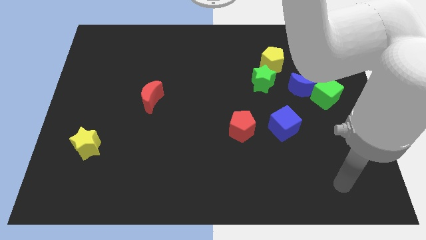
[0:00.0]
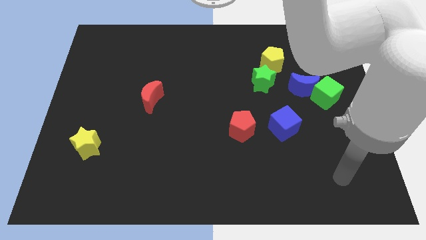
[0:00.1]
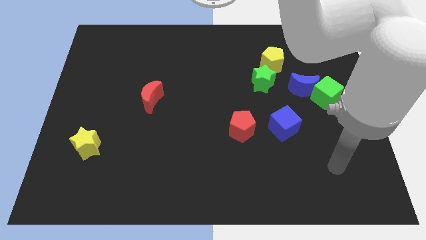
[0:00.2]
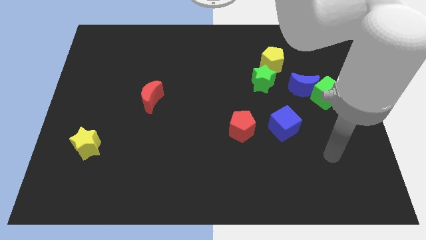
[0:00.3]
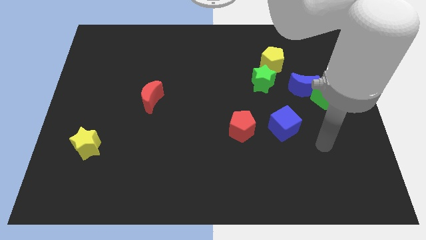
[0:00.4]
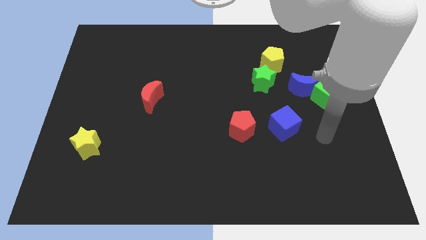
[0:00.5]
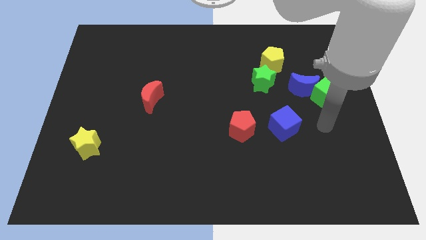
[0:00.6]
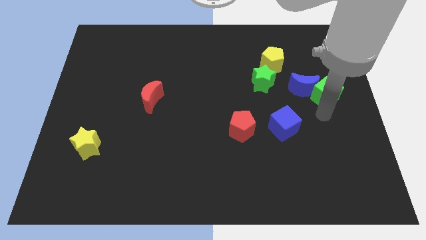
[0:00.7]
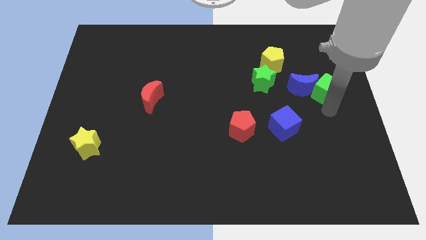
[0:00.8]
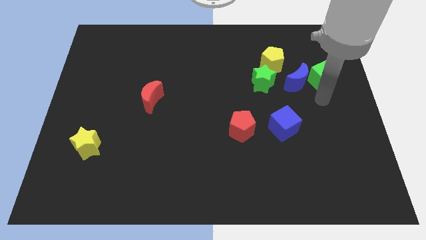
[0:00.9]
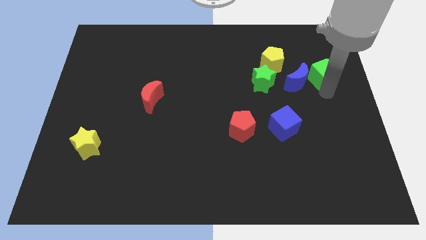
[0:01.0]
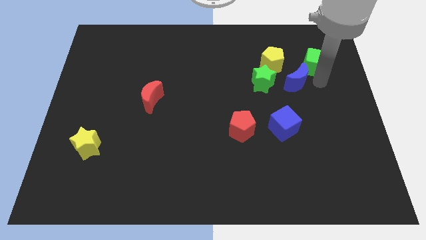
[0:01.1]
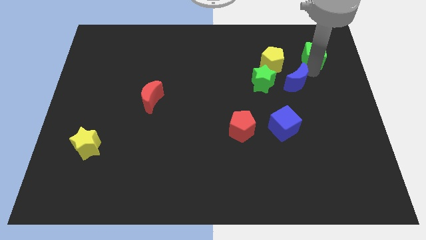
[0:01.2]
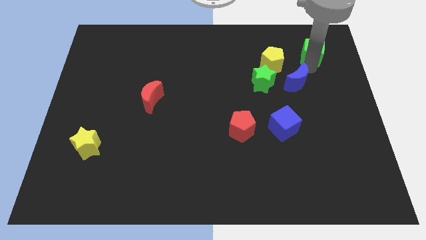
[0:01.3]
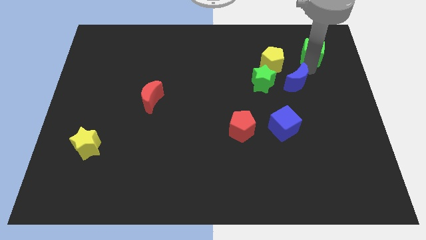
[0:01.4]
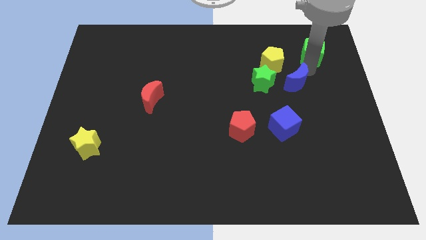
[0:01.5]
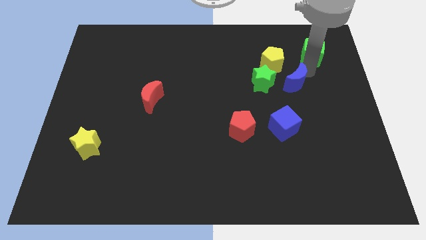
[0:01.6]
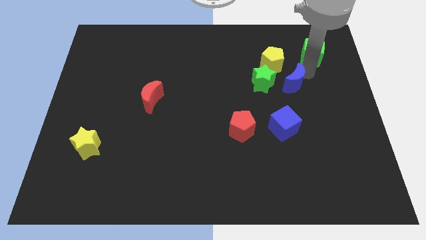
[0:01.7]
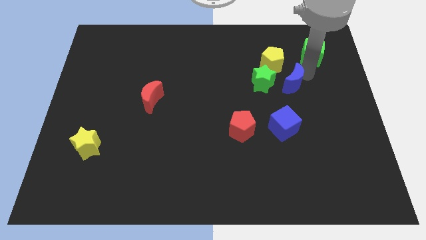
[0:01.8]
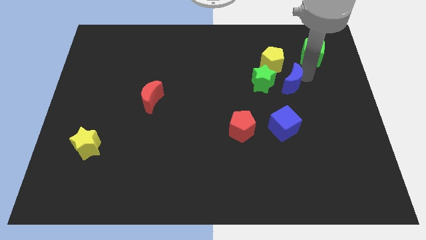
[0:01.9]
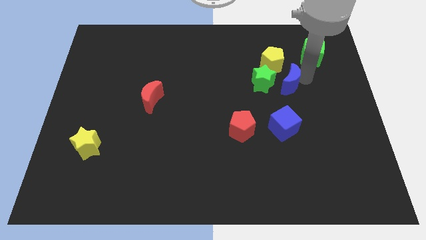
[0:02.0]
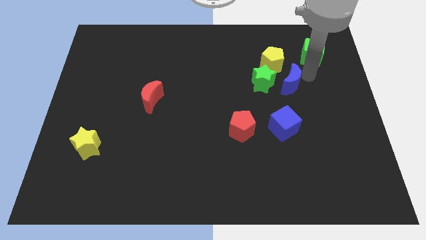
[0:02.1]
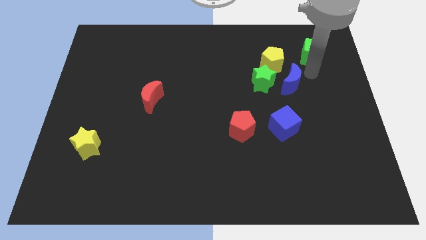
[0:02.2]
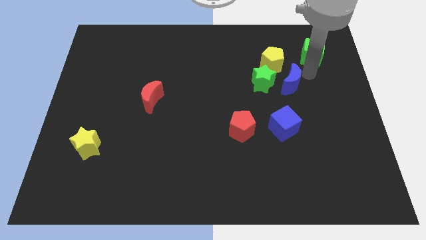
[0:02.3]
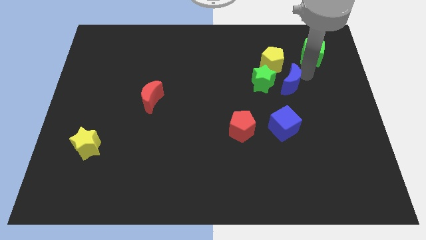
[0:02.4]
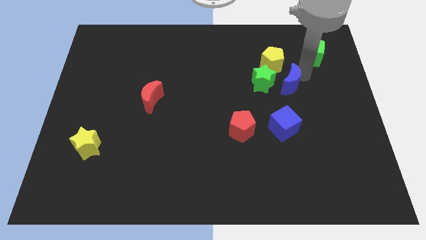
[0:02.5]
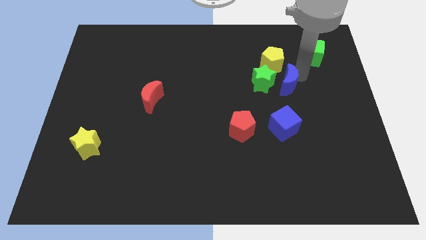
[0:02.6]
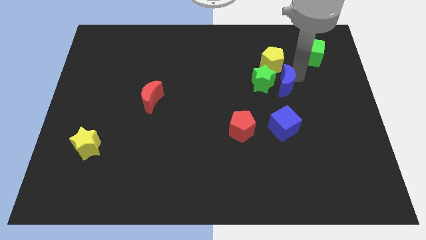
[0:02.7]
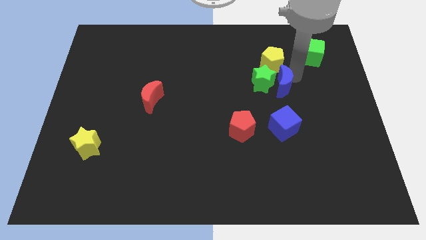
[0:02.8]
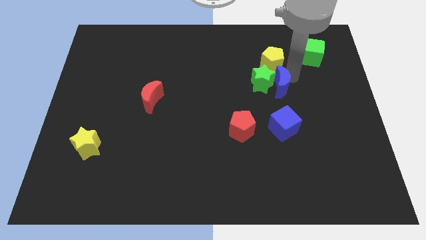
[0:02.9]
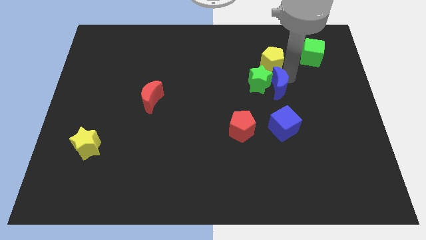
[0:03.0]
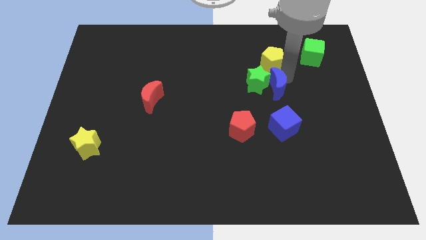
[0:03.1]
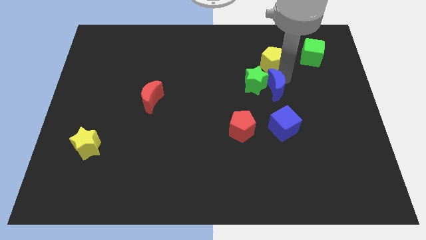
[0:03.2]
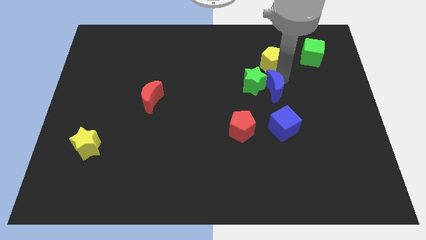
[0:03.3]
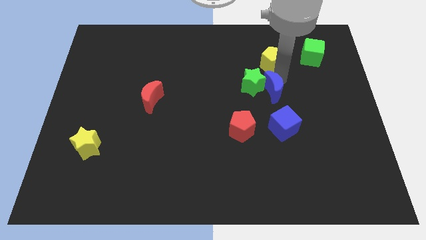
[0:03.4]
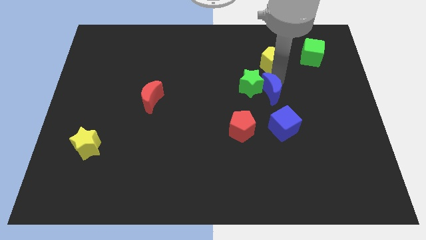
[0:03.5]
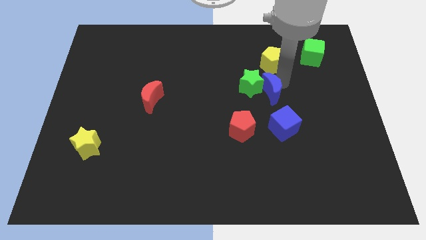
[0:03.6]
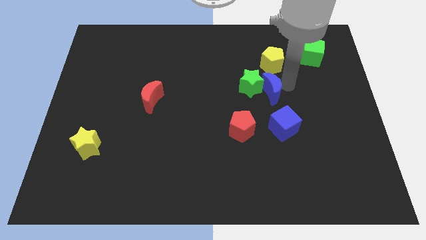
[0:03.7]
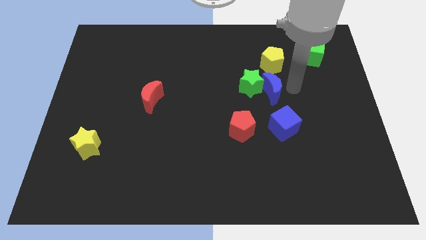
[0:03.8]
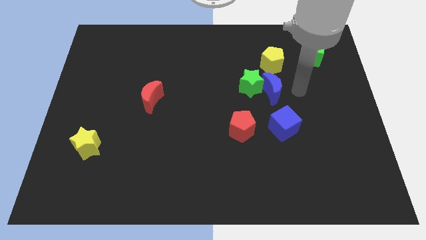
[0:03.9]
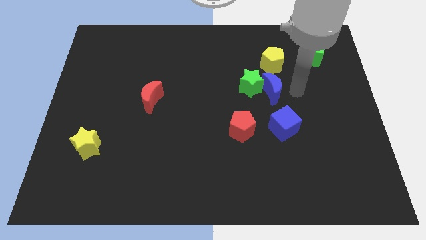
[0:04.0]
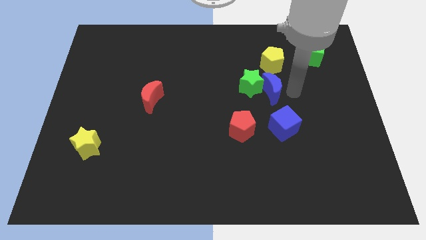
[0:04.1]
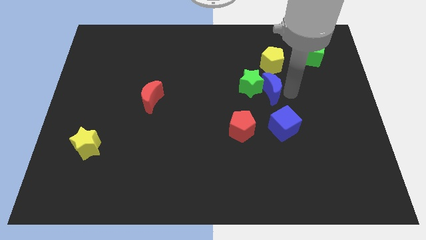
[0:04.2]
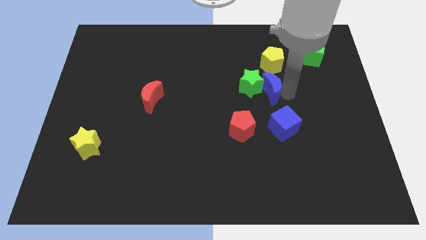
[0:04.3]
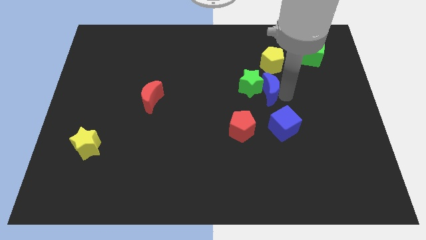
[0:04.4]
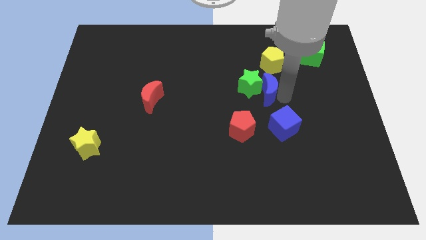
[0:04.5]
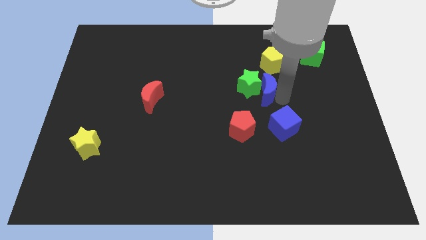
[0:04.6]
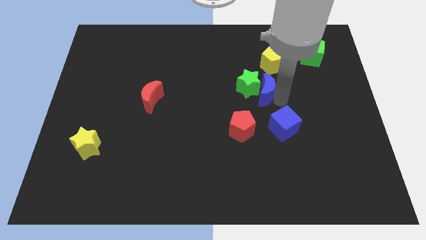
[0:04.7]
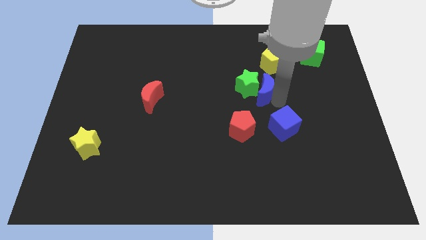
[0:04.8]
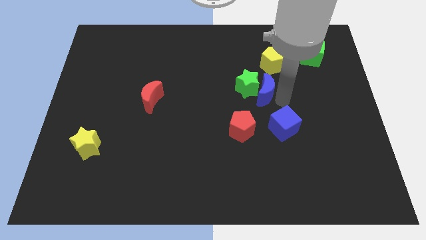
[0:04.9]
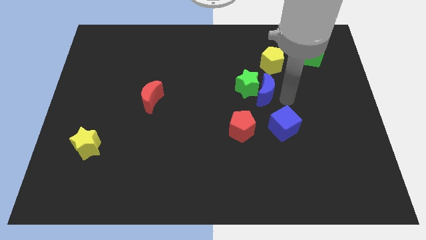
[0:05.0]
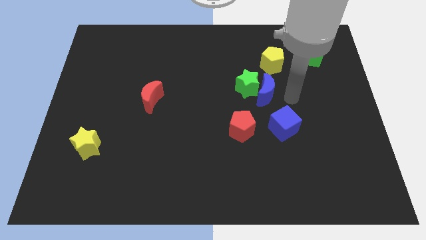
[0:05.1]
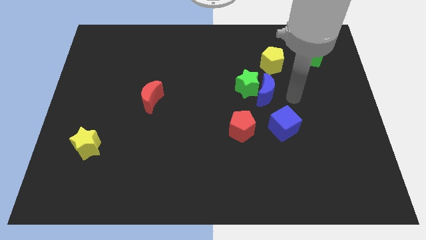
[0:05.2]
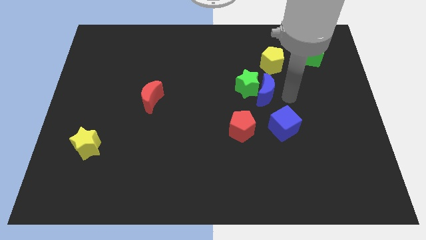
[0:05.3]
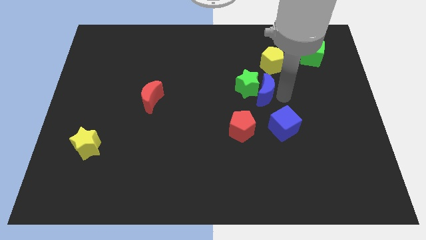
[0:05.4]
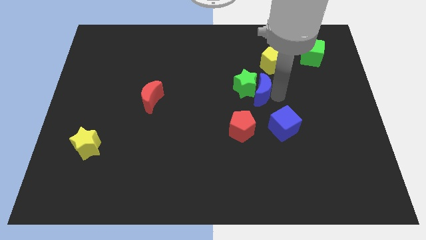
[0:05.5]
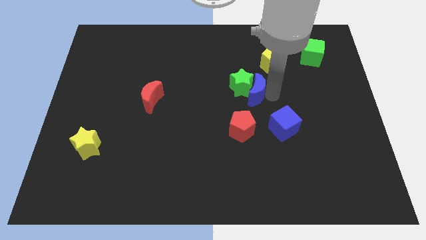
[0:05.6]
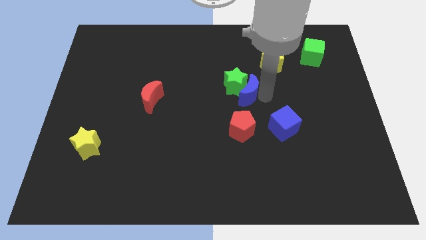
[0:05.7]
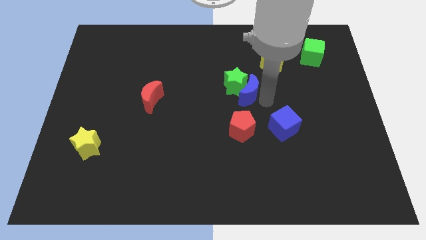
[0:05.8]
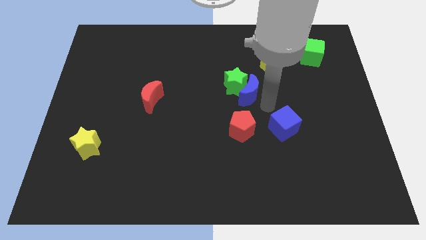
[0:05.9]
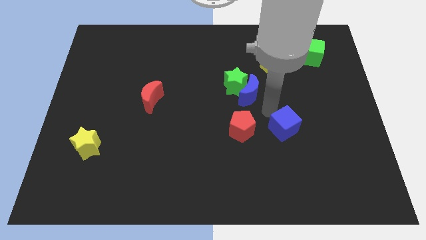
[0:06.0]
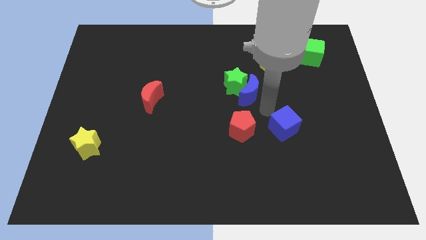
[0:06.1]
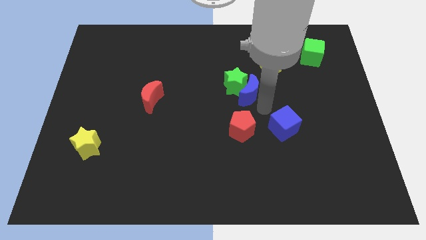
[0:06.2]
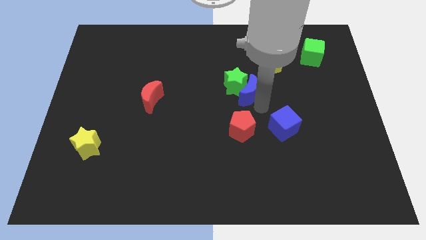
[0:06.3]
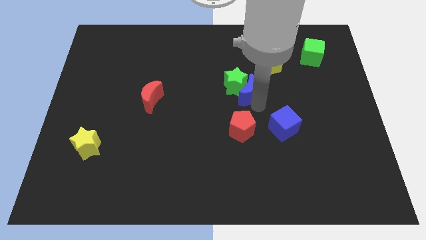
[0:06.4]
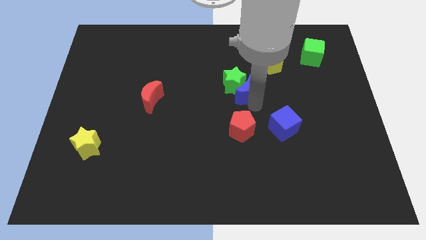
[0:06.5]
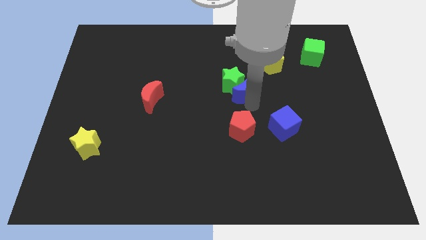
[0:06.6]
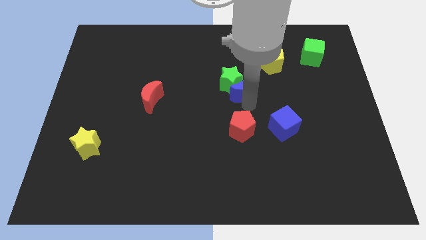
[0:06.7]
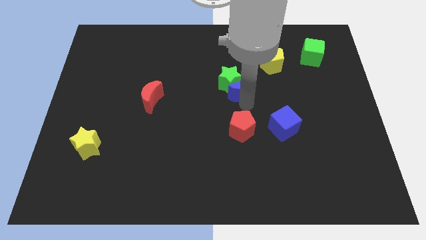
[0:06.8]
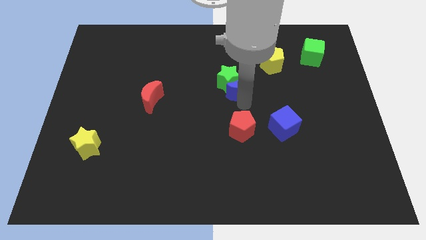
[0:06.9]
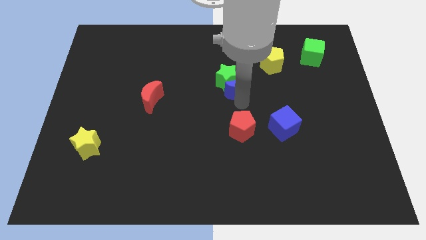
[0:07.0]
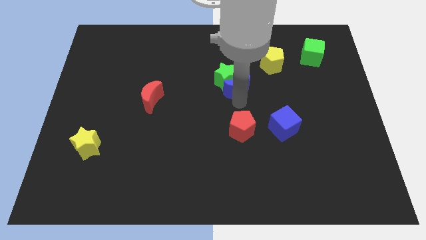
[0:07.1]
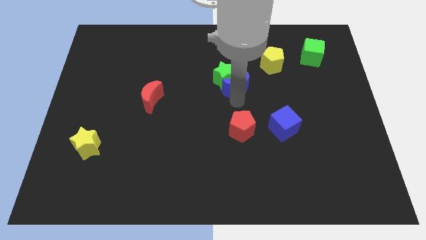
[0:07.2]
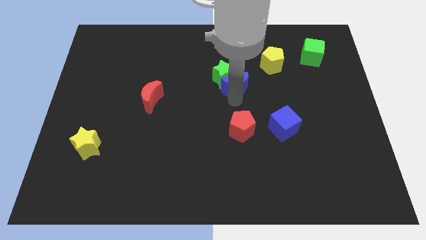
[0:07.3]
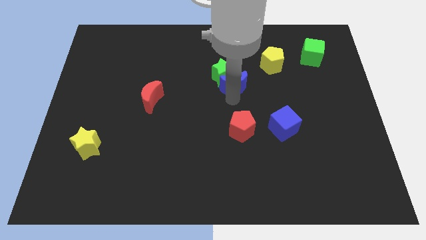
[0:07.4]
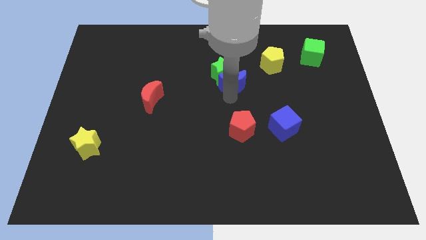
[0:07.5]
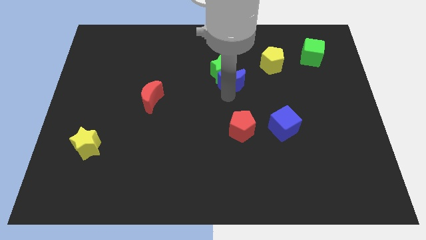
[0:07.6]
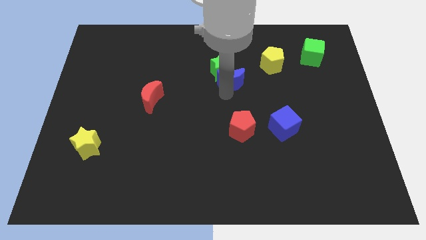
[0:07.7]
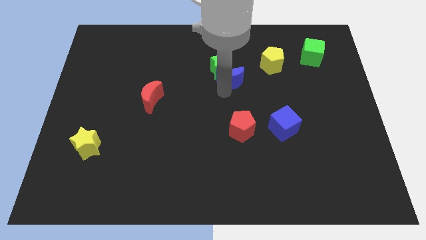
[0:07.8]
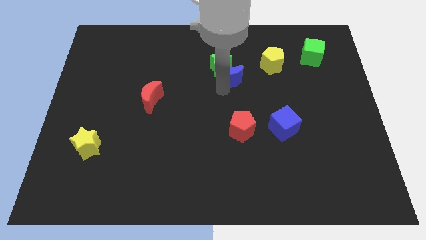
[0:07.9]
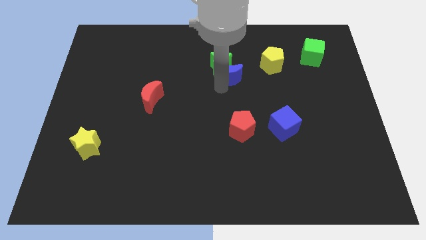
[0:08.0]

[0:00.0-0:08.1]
put the blue moon to the left side of the yellow pentagon
